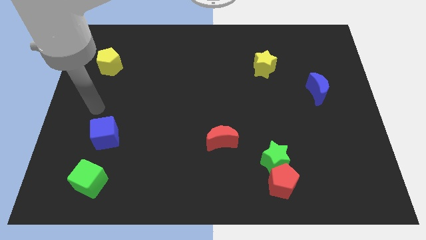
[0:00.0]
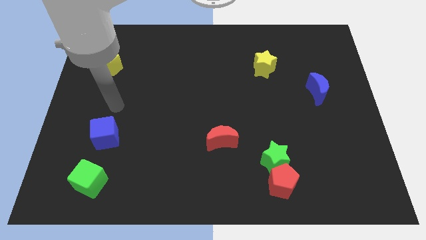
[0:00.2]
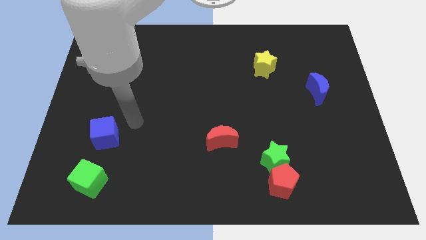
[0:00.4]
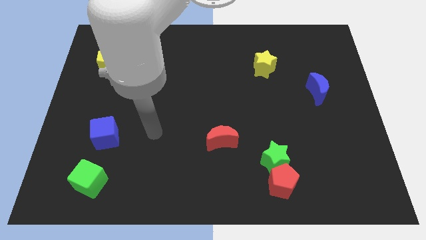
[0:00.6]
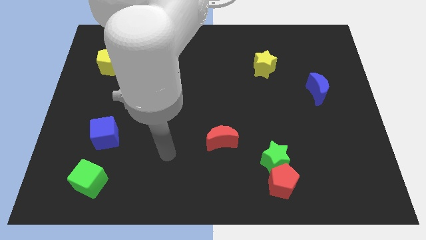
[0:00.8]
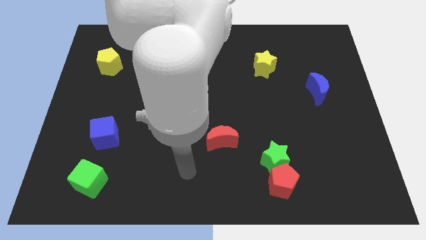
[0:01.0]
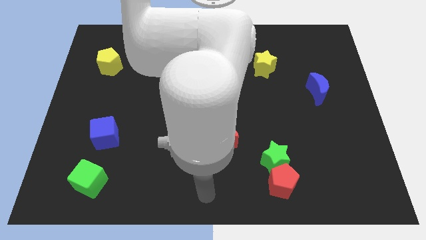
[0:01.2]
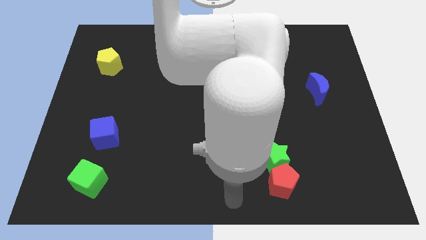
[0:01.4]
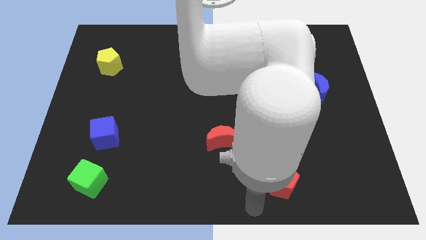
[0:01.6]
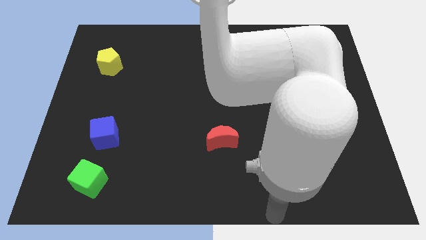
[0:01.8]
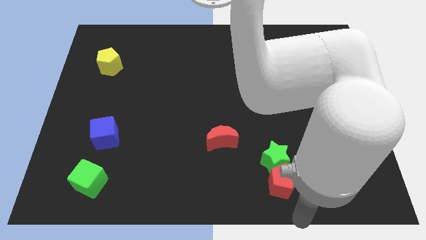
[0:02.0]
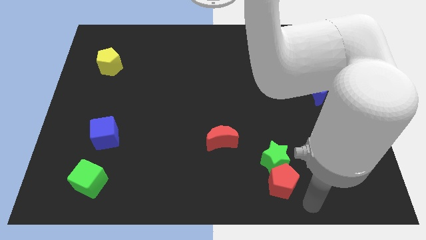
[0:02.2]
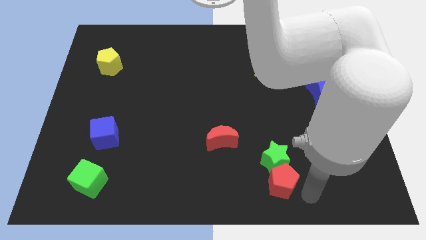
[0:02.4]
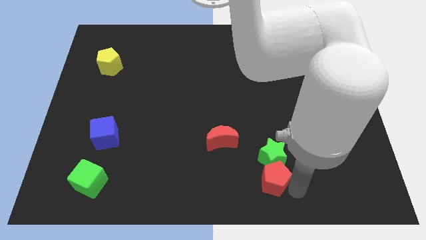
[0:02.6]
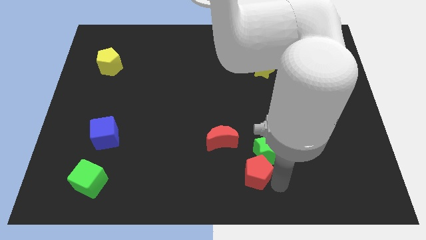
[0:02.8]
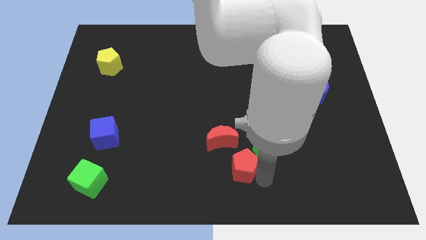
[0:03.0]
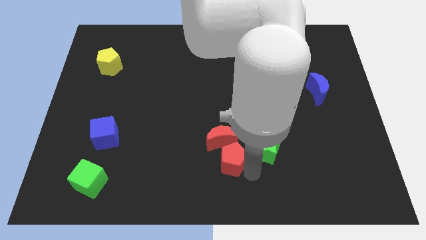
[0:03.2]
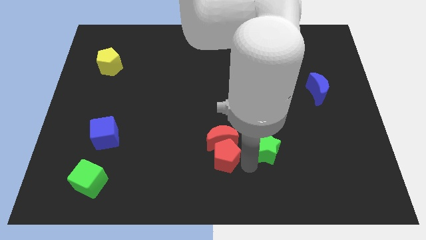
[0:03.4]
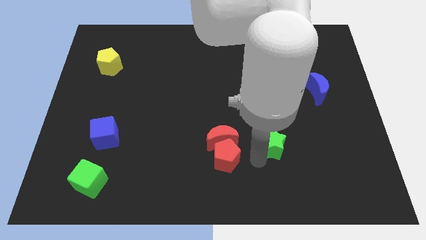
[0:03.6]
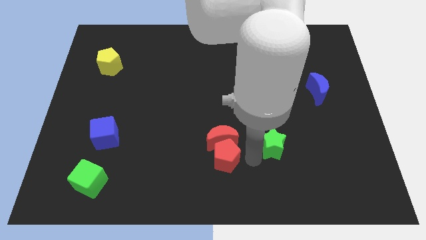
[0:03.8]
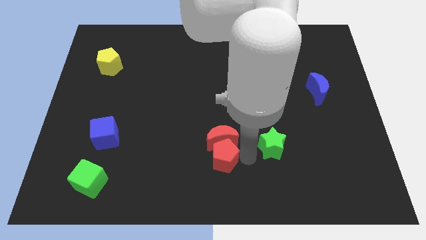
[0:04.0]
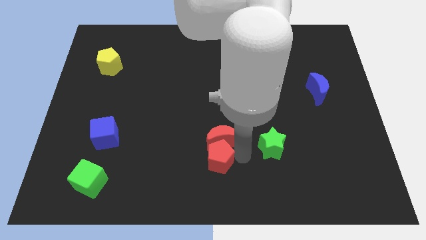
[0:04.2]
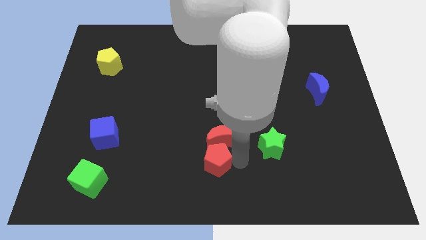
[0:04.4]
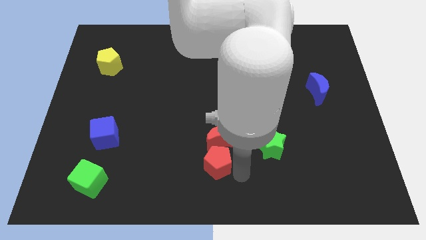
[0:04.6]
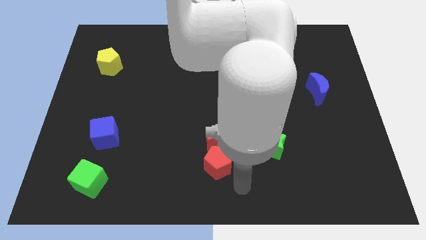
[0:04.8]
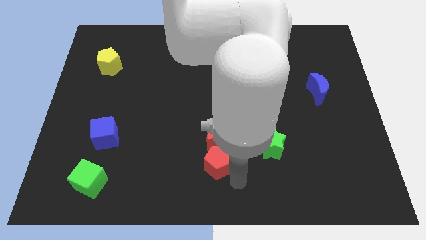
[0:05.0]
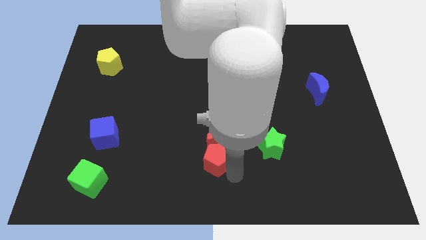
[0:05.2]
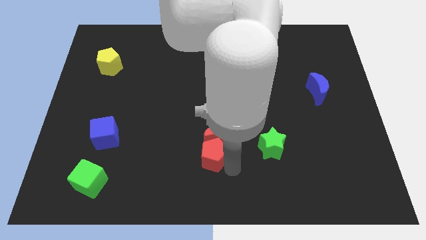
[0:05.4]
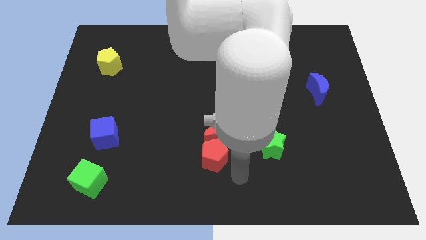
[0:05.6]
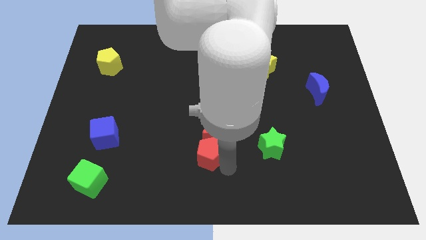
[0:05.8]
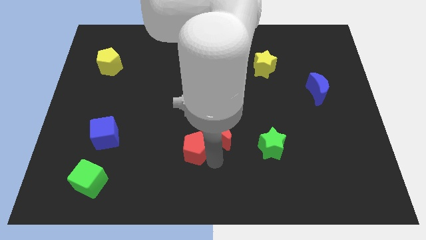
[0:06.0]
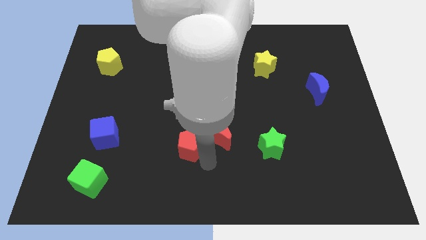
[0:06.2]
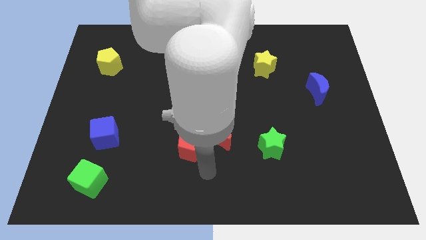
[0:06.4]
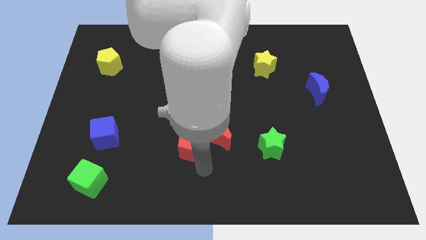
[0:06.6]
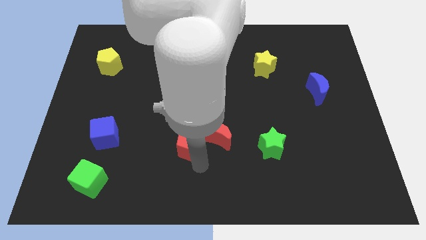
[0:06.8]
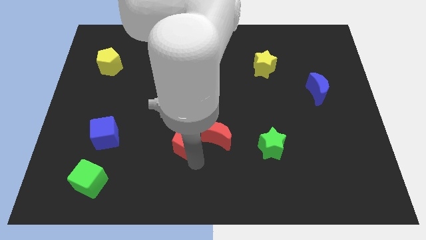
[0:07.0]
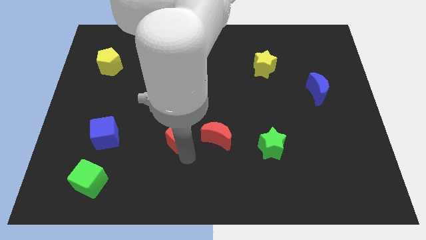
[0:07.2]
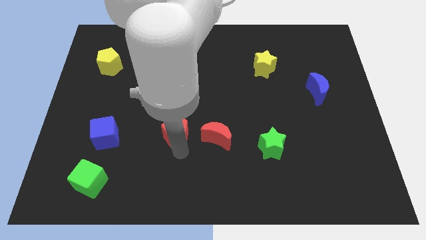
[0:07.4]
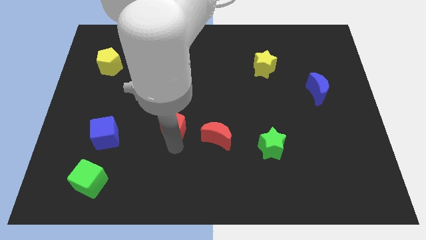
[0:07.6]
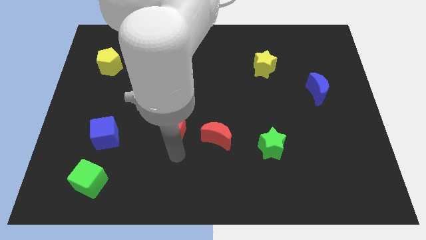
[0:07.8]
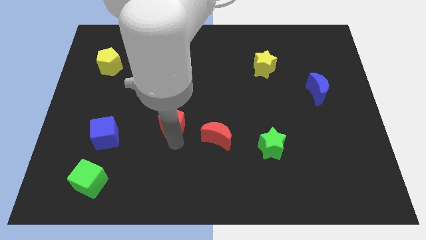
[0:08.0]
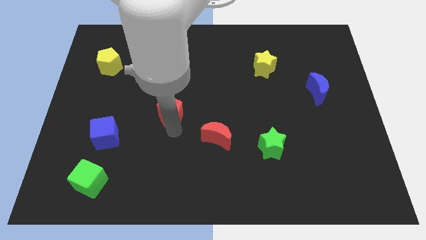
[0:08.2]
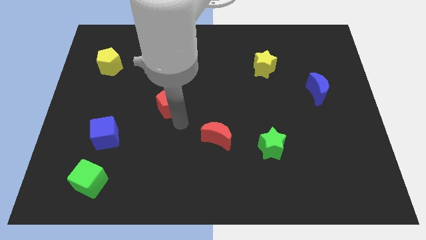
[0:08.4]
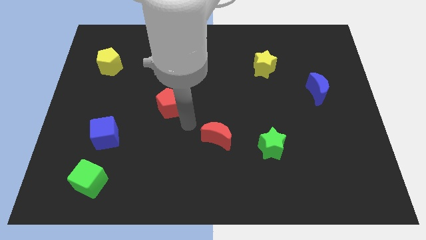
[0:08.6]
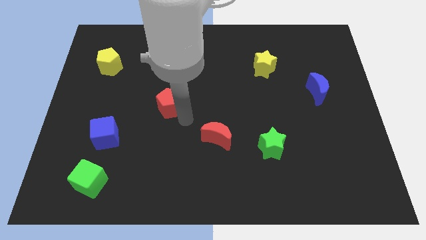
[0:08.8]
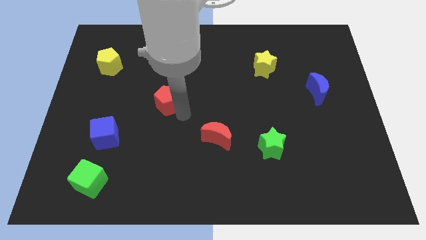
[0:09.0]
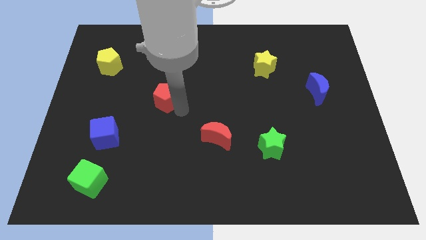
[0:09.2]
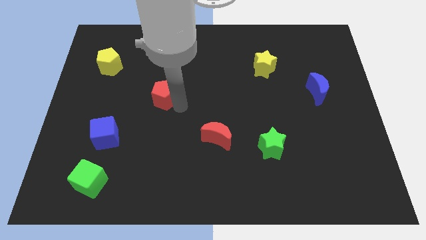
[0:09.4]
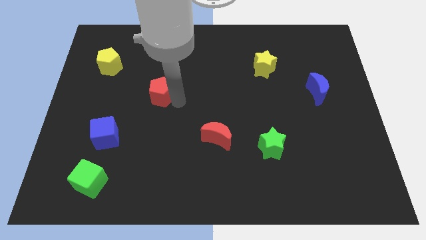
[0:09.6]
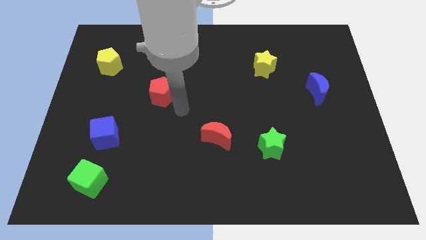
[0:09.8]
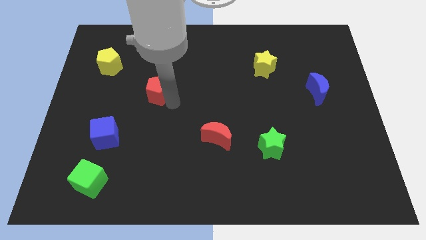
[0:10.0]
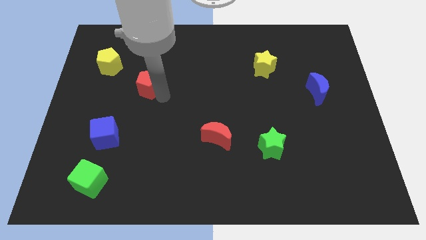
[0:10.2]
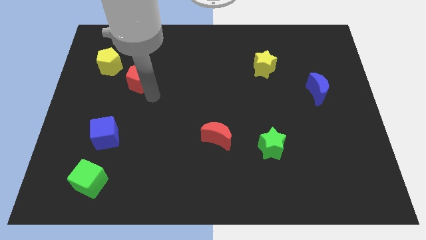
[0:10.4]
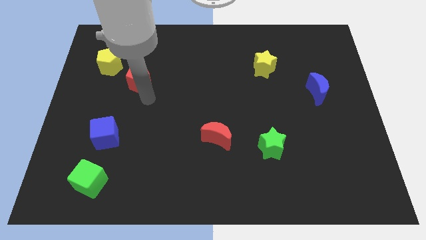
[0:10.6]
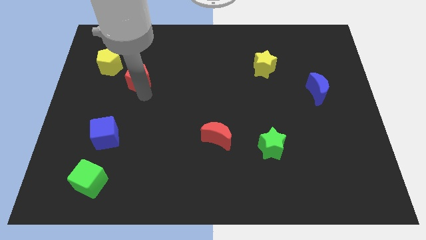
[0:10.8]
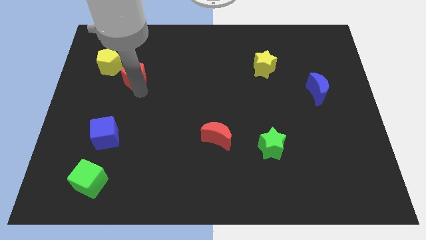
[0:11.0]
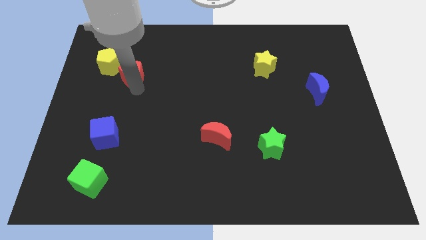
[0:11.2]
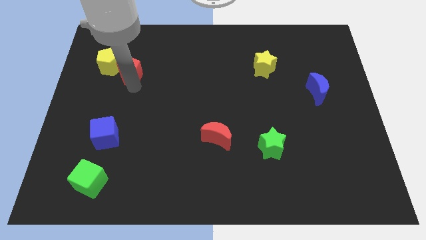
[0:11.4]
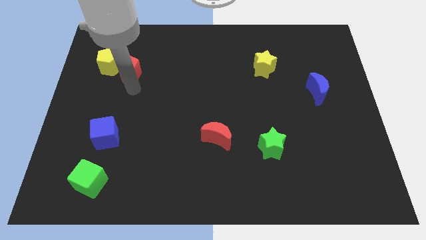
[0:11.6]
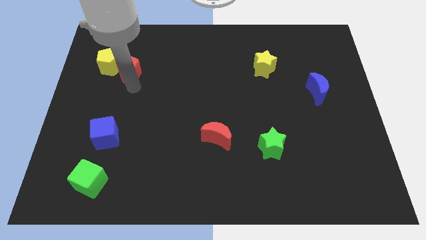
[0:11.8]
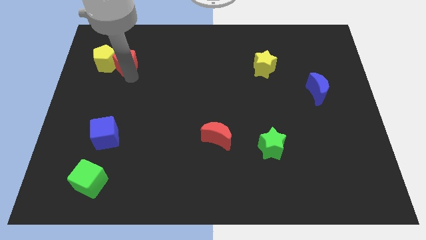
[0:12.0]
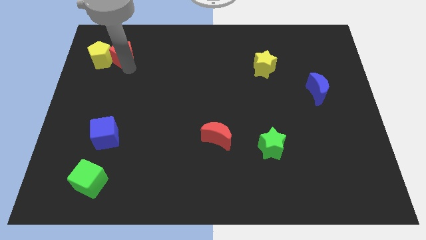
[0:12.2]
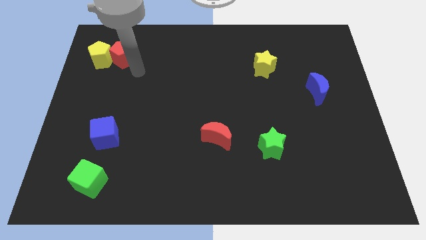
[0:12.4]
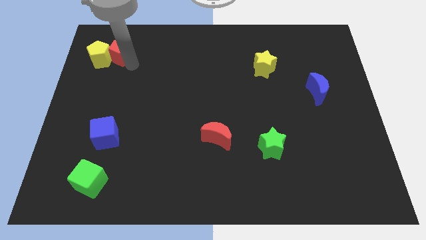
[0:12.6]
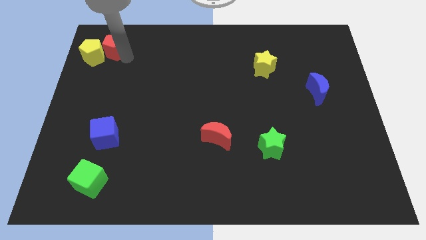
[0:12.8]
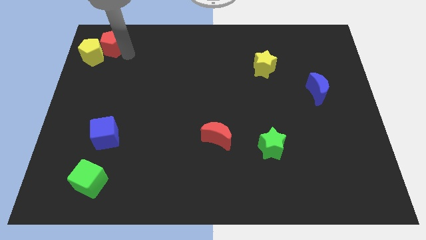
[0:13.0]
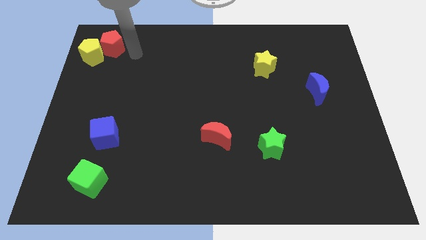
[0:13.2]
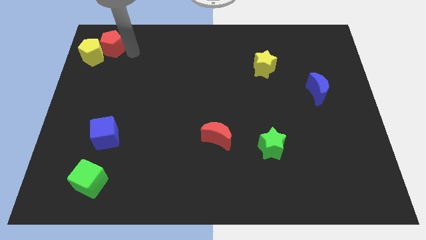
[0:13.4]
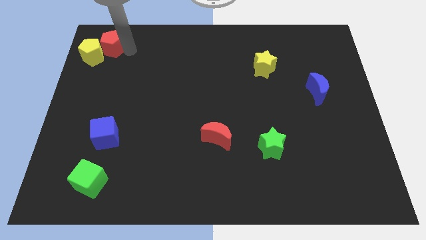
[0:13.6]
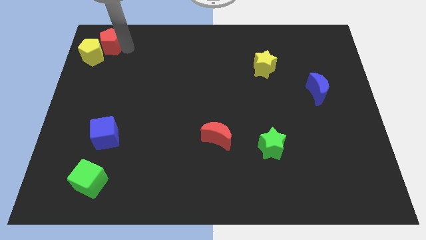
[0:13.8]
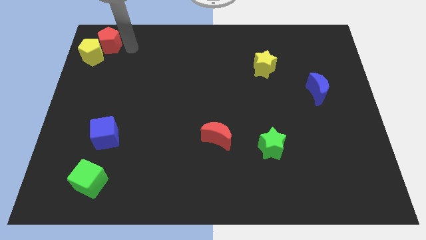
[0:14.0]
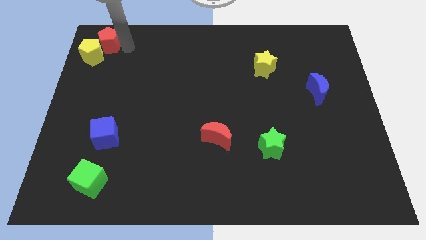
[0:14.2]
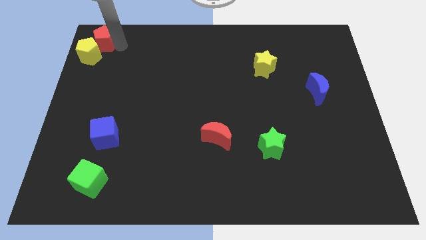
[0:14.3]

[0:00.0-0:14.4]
slide the red pentagon to the top left of the board
